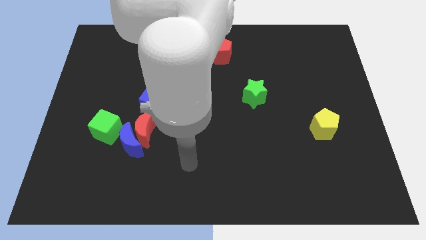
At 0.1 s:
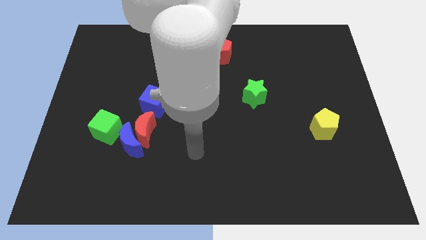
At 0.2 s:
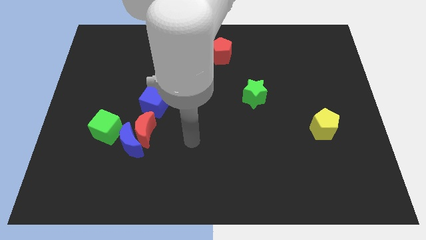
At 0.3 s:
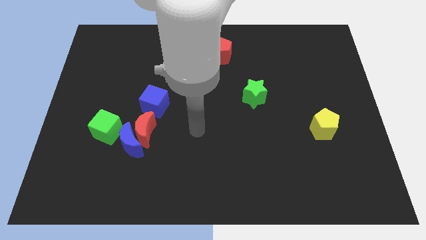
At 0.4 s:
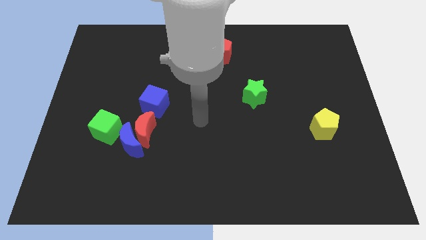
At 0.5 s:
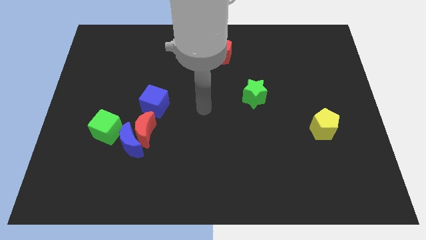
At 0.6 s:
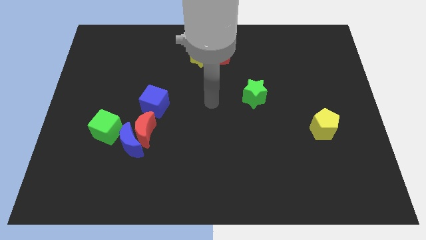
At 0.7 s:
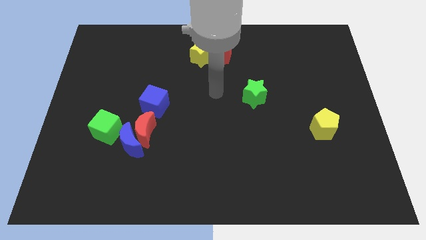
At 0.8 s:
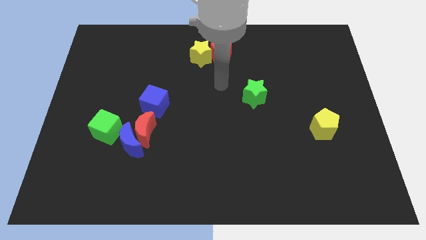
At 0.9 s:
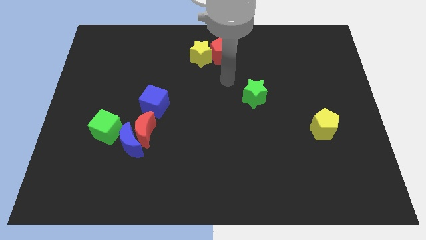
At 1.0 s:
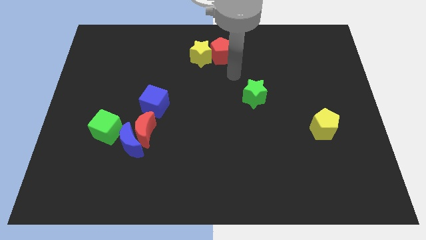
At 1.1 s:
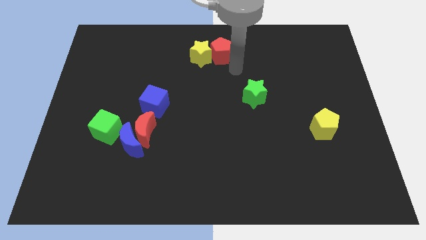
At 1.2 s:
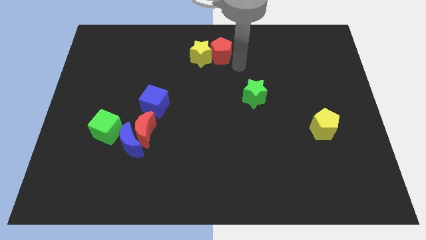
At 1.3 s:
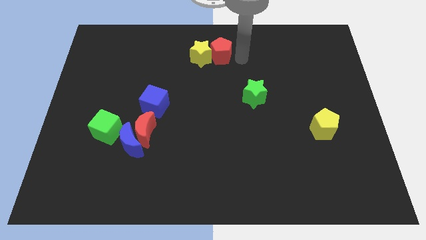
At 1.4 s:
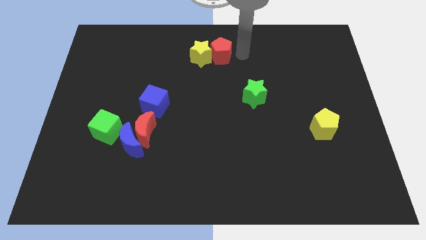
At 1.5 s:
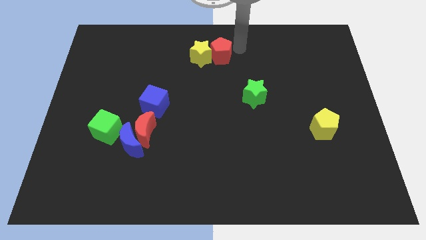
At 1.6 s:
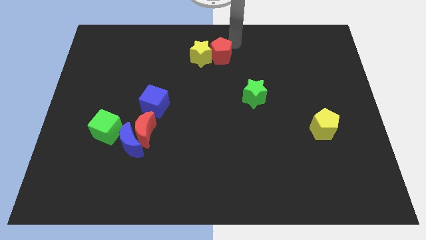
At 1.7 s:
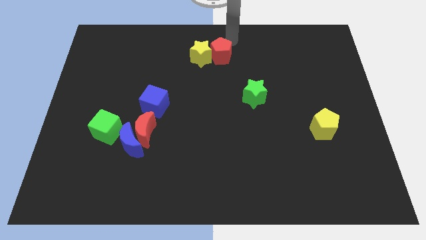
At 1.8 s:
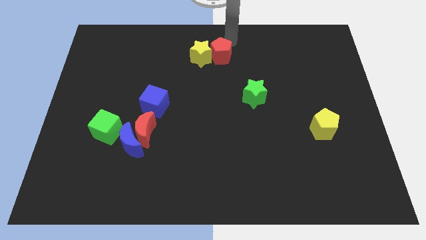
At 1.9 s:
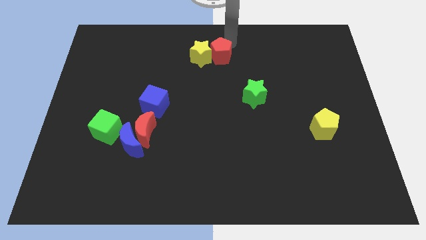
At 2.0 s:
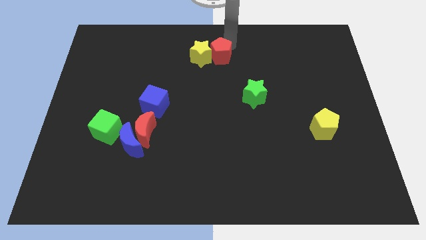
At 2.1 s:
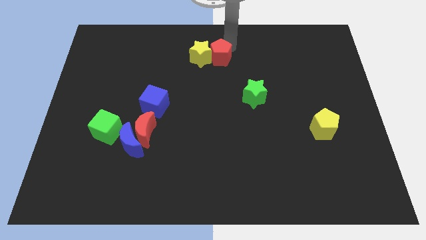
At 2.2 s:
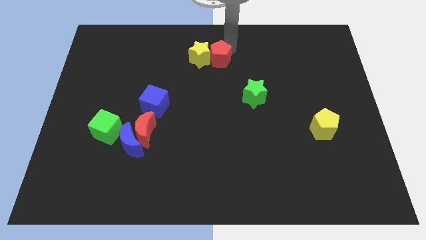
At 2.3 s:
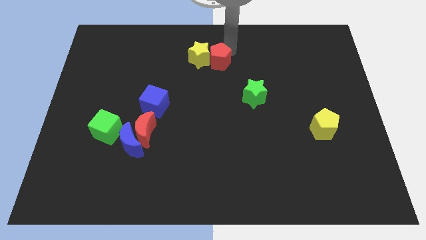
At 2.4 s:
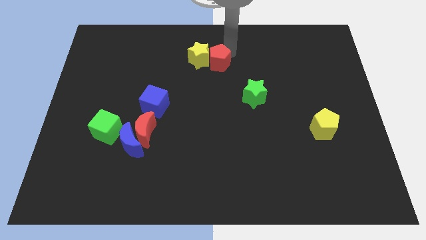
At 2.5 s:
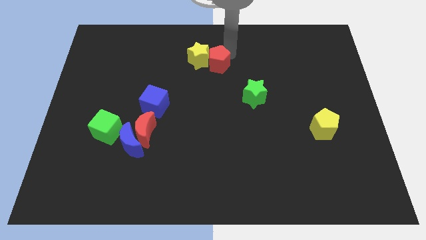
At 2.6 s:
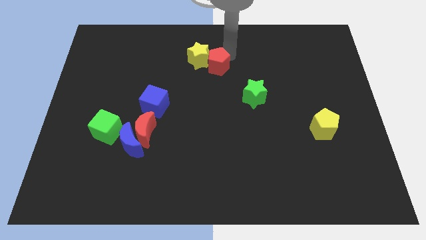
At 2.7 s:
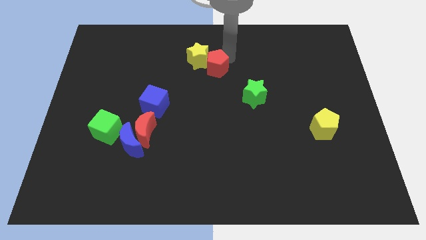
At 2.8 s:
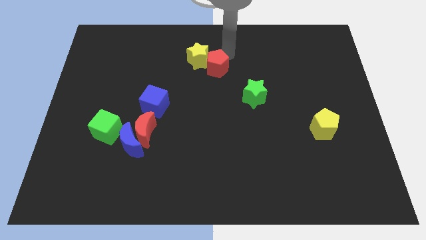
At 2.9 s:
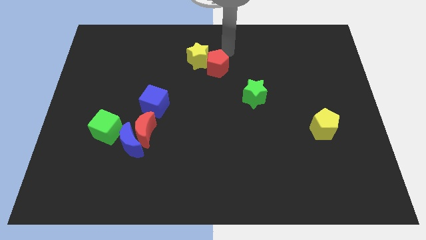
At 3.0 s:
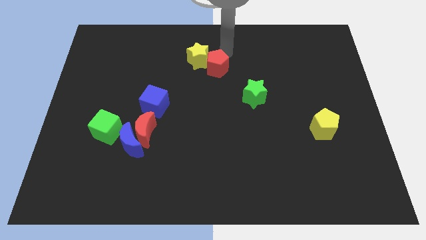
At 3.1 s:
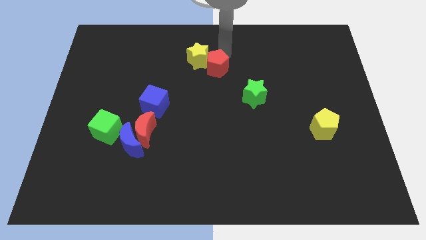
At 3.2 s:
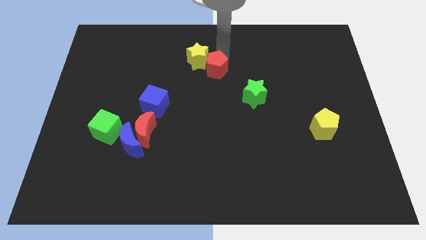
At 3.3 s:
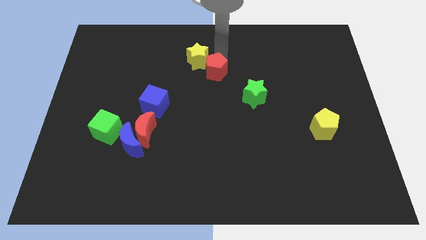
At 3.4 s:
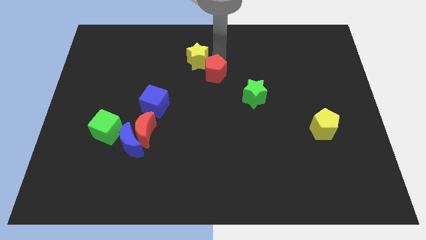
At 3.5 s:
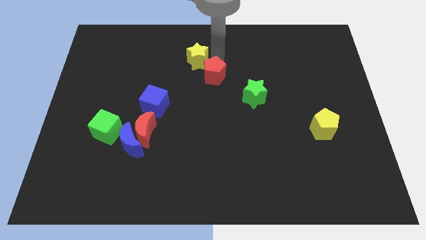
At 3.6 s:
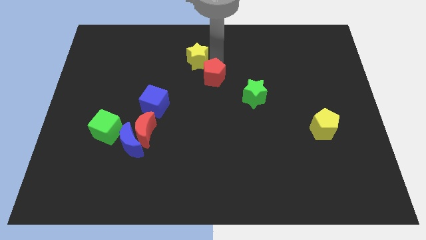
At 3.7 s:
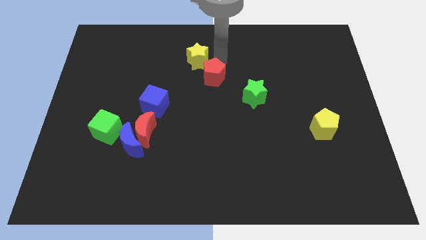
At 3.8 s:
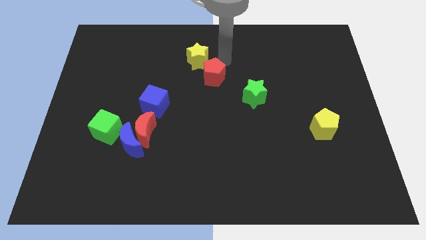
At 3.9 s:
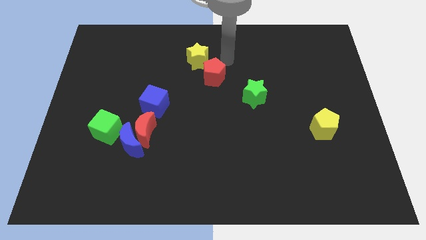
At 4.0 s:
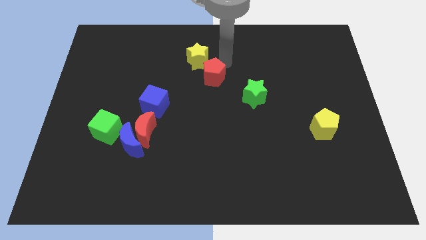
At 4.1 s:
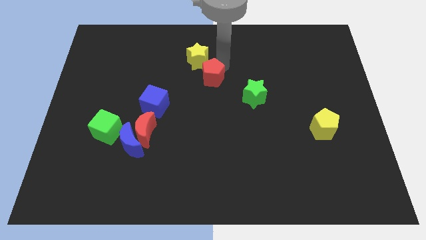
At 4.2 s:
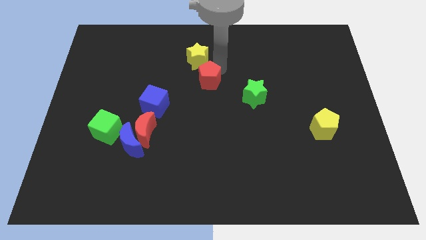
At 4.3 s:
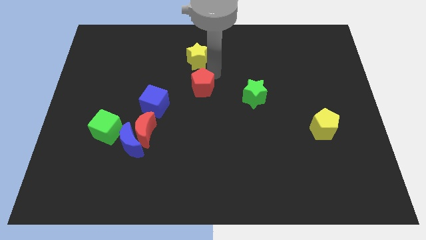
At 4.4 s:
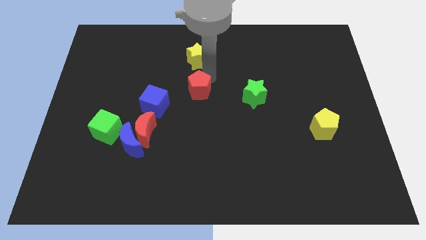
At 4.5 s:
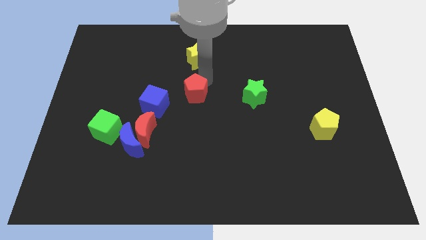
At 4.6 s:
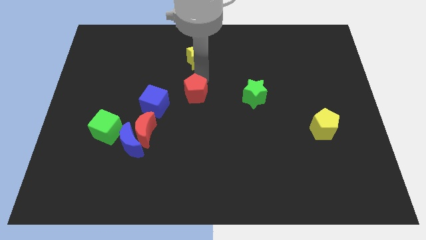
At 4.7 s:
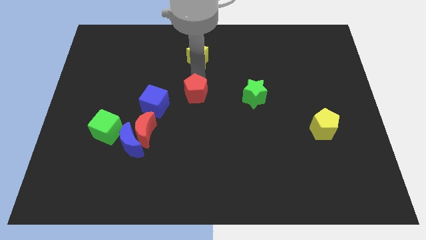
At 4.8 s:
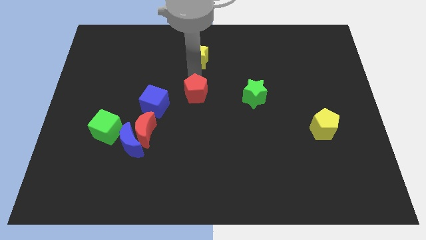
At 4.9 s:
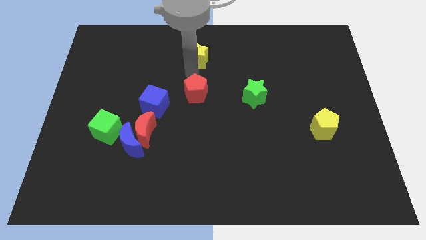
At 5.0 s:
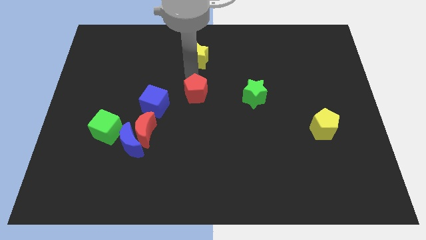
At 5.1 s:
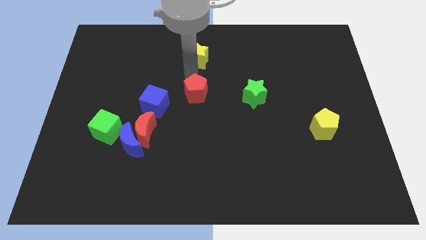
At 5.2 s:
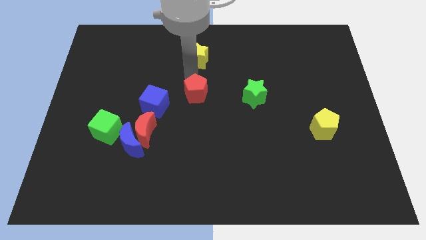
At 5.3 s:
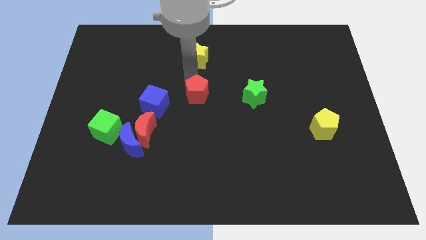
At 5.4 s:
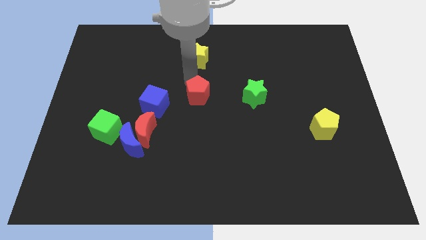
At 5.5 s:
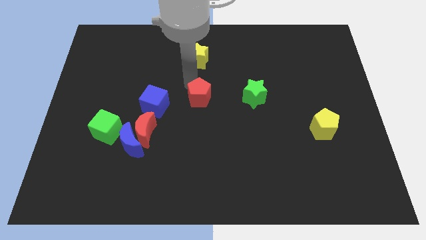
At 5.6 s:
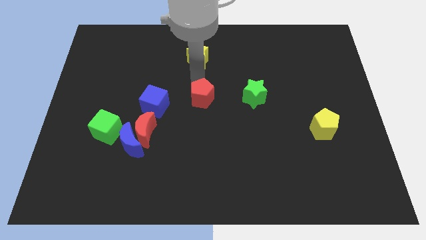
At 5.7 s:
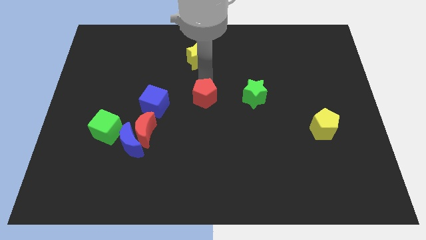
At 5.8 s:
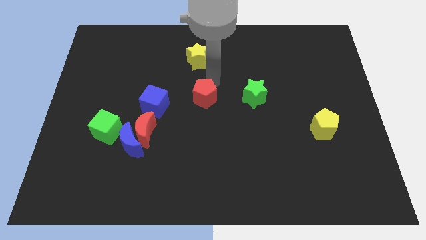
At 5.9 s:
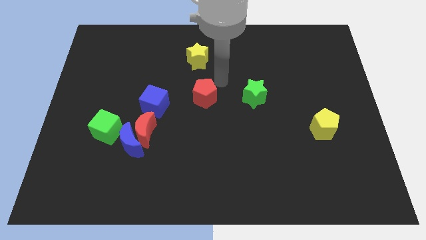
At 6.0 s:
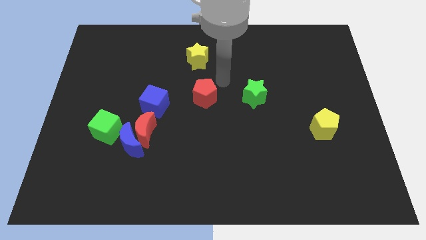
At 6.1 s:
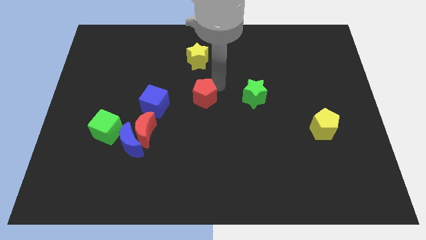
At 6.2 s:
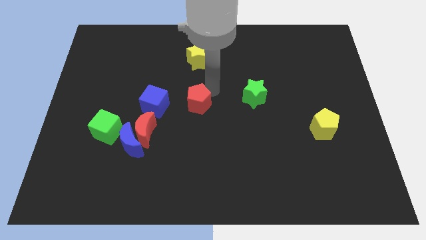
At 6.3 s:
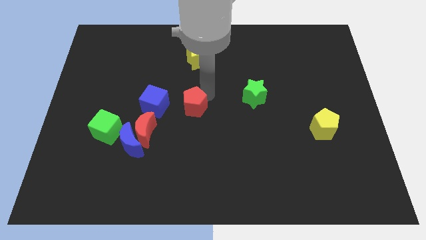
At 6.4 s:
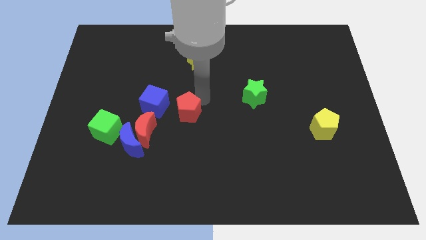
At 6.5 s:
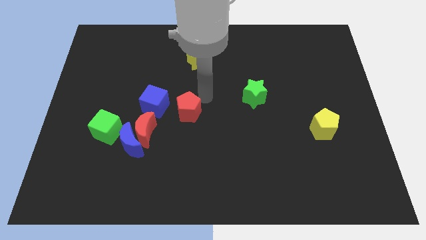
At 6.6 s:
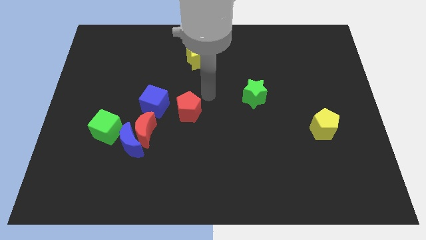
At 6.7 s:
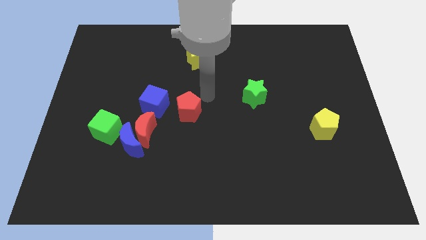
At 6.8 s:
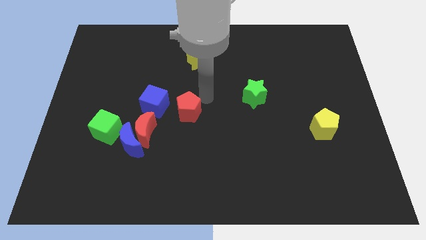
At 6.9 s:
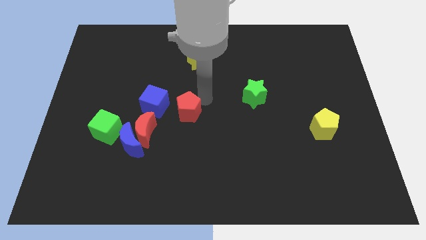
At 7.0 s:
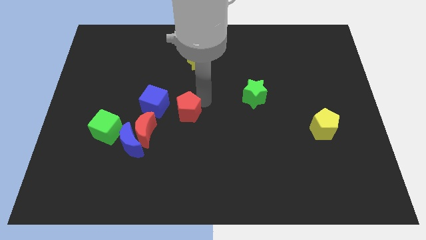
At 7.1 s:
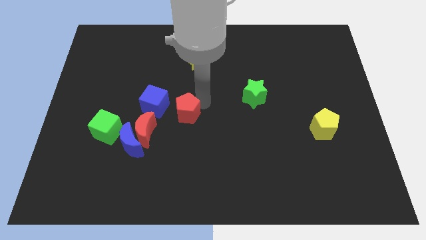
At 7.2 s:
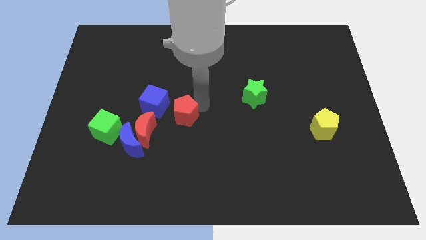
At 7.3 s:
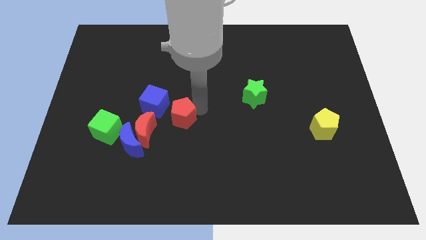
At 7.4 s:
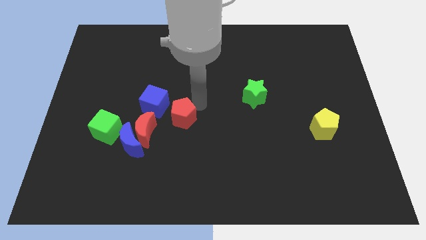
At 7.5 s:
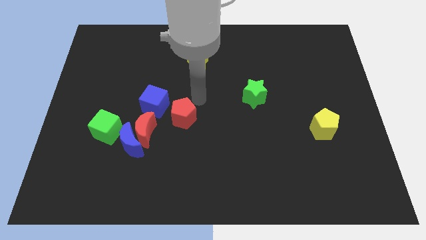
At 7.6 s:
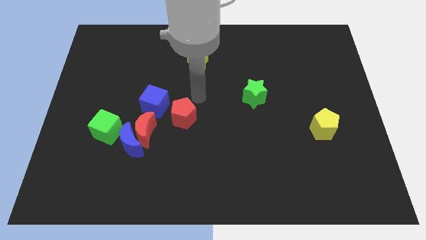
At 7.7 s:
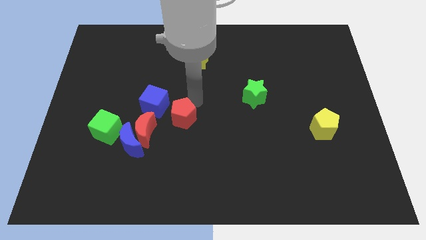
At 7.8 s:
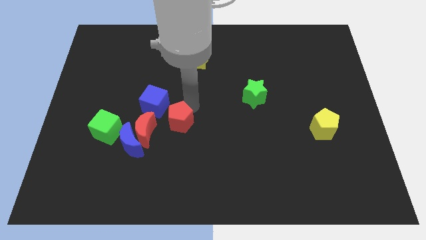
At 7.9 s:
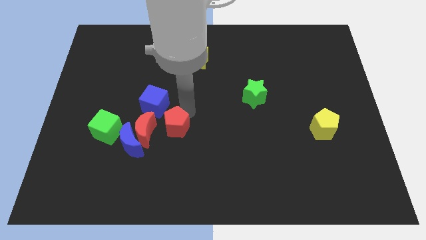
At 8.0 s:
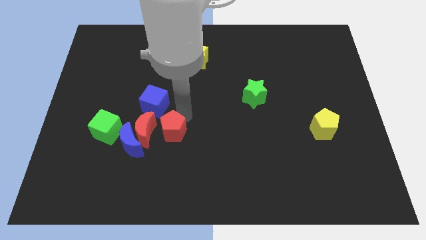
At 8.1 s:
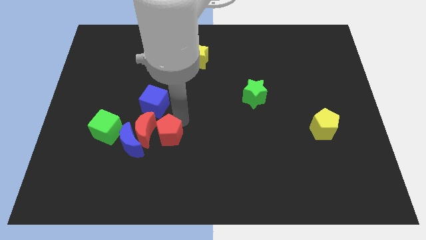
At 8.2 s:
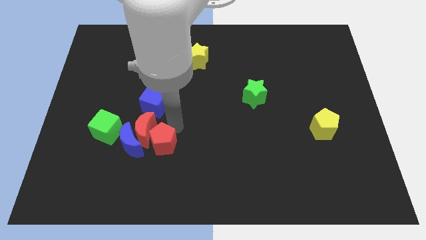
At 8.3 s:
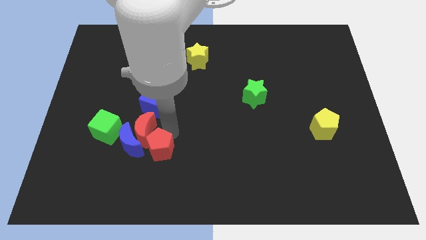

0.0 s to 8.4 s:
put the red pentagon to the bottom right of the blue moon
